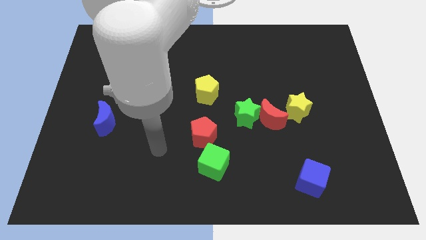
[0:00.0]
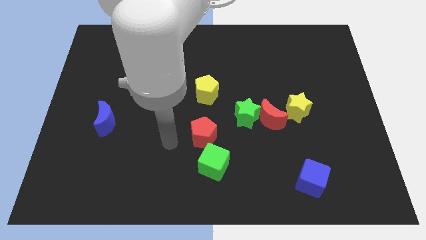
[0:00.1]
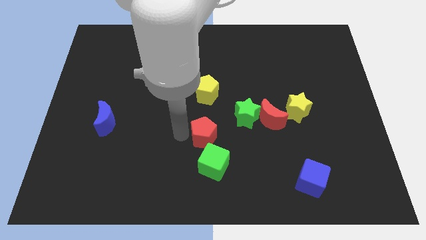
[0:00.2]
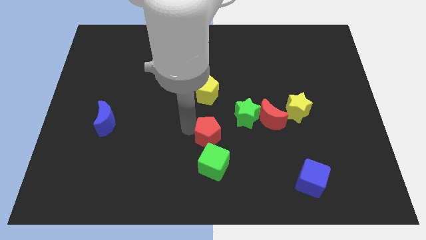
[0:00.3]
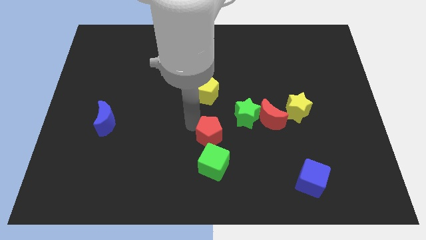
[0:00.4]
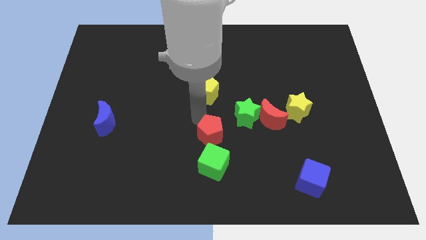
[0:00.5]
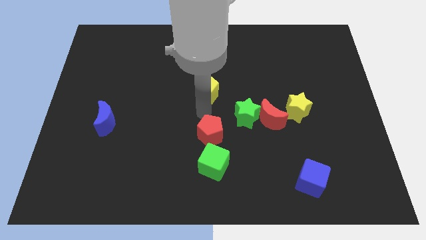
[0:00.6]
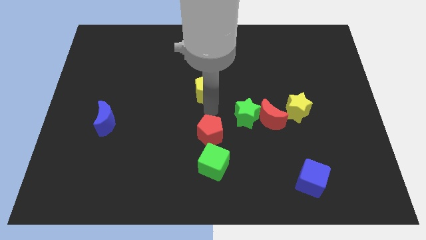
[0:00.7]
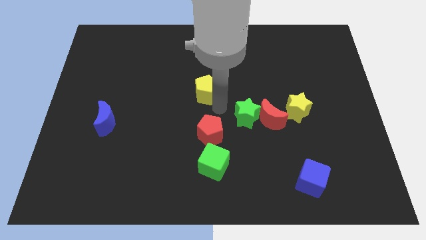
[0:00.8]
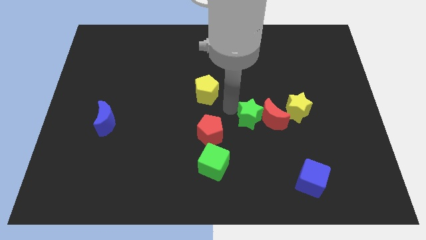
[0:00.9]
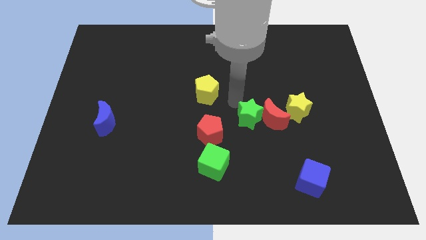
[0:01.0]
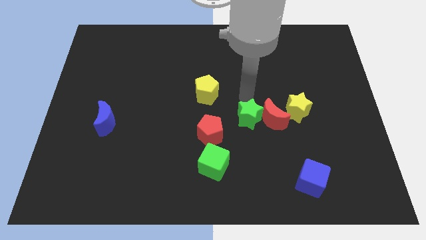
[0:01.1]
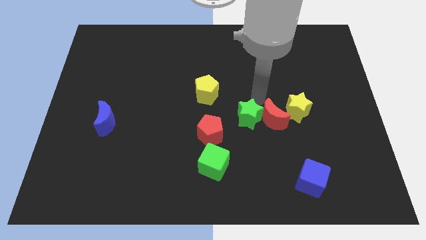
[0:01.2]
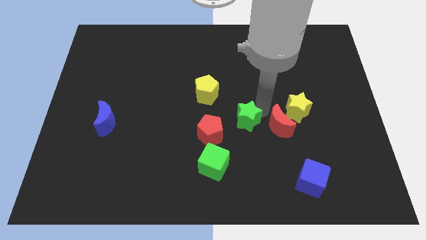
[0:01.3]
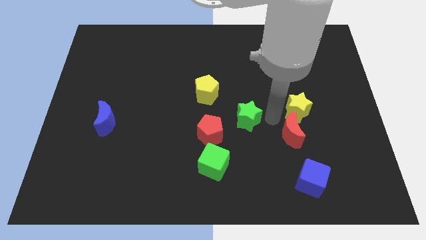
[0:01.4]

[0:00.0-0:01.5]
separate the green star from the red moon

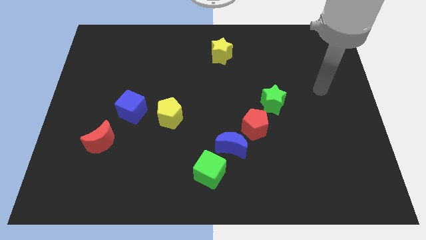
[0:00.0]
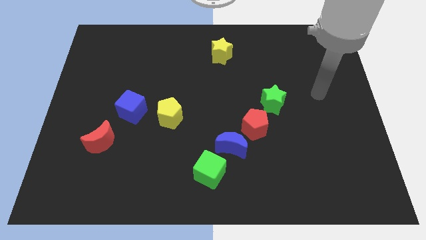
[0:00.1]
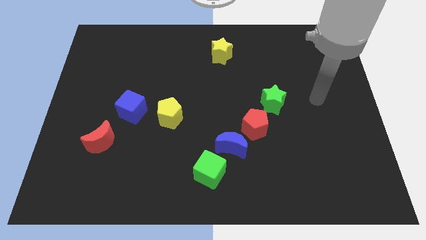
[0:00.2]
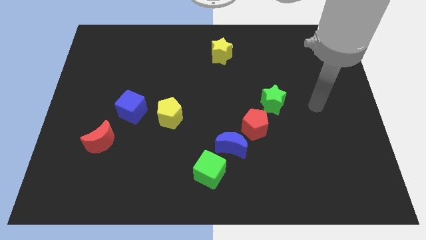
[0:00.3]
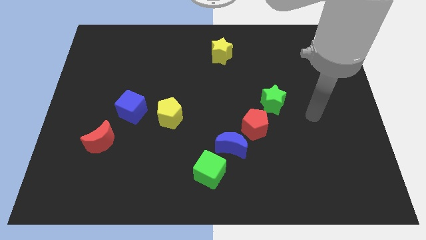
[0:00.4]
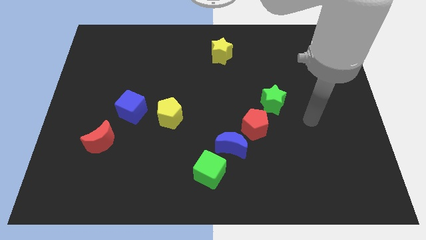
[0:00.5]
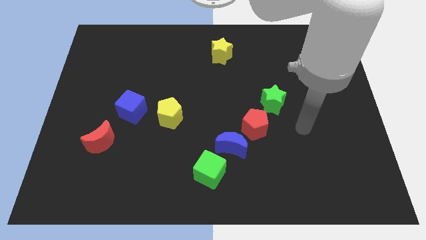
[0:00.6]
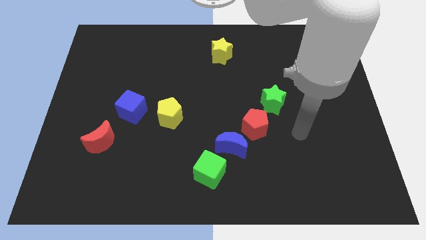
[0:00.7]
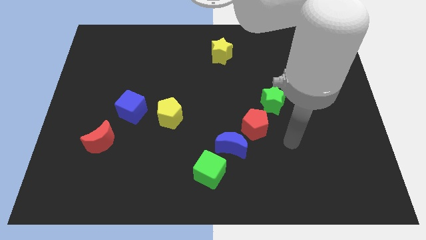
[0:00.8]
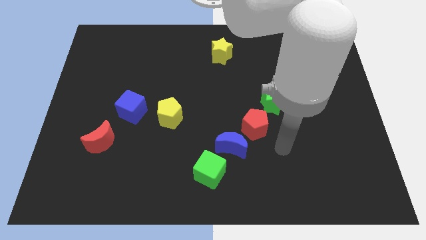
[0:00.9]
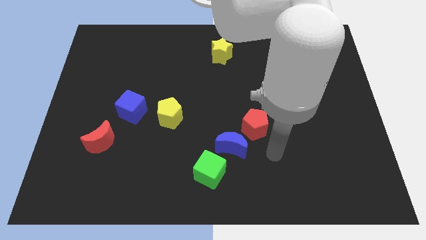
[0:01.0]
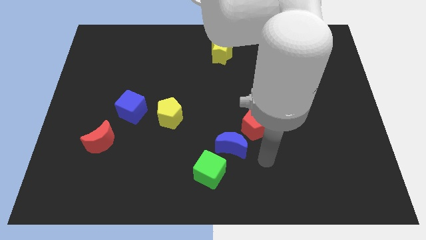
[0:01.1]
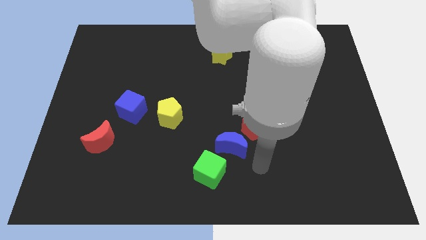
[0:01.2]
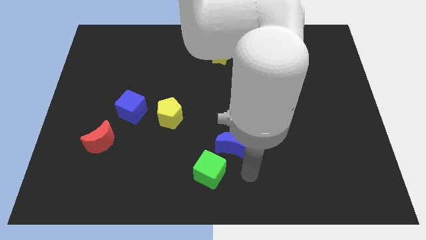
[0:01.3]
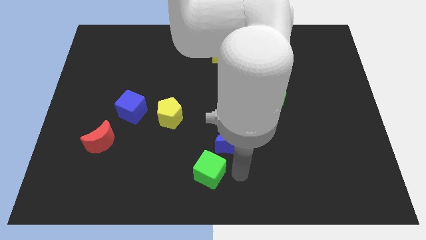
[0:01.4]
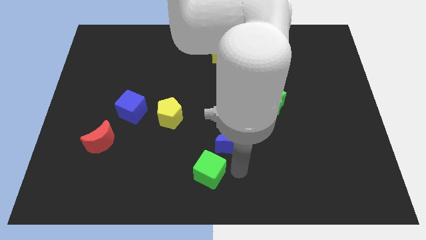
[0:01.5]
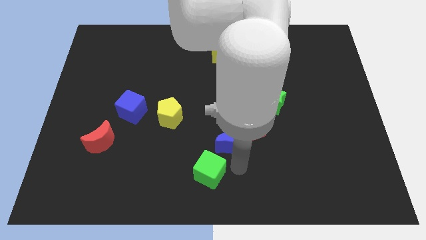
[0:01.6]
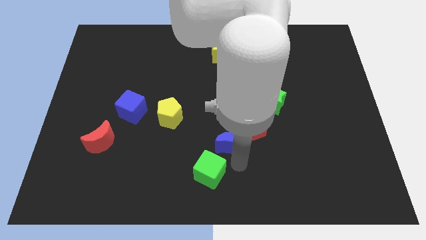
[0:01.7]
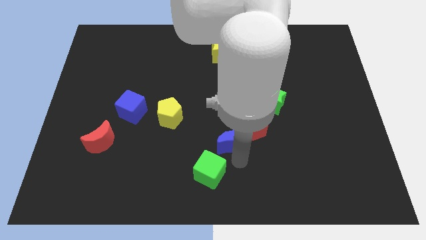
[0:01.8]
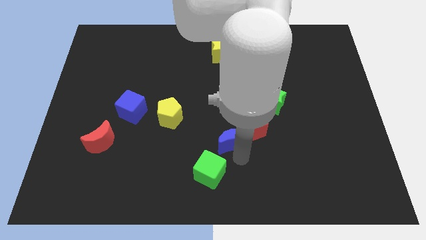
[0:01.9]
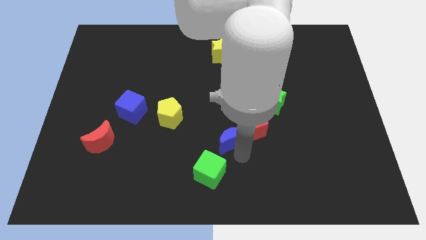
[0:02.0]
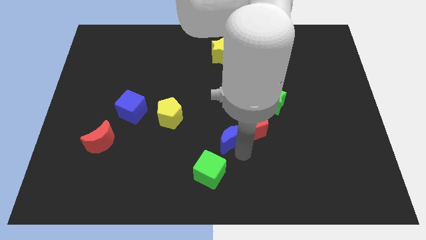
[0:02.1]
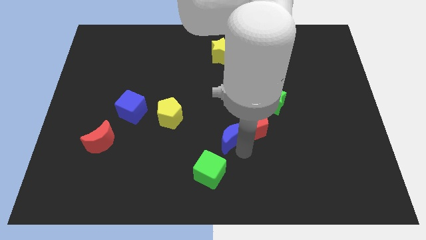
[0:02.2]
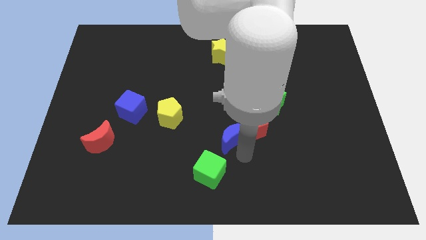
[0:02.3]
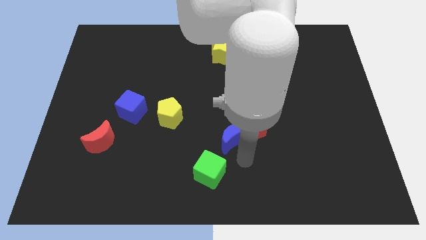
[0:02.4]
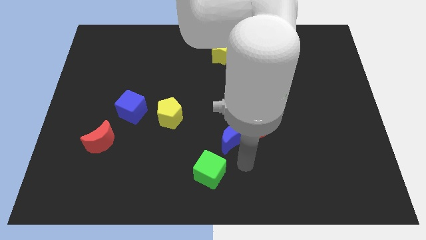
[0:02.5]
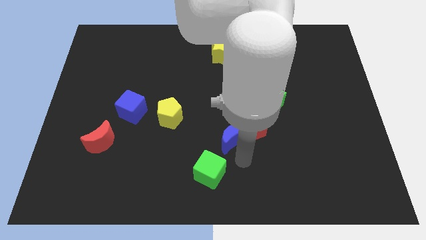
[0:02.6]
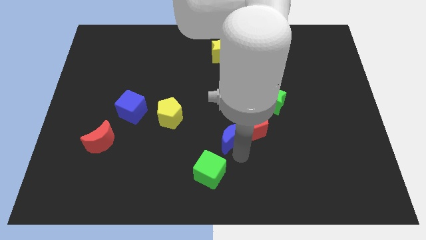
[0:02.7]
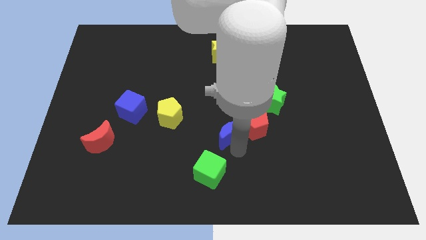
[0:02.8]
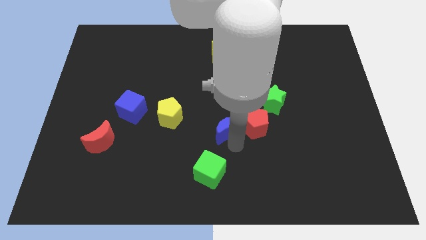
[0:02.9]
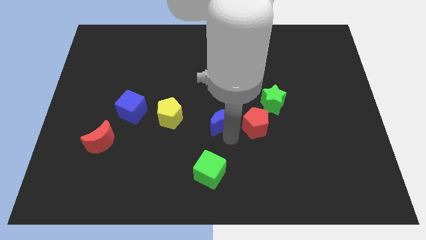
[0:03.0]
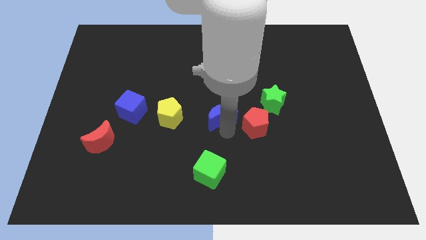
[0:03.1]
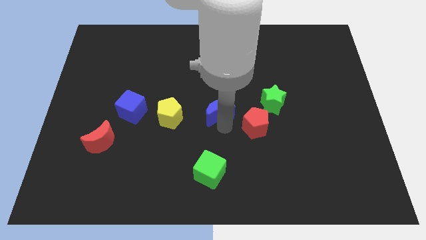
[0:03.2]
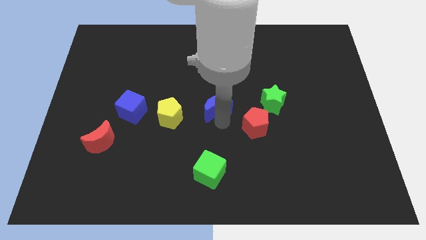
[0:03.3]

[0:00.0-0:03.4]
pull the blue moon apart from the red pentagon and green cube

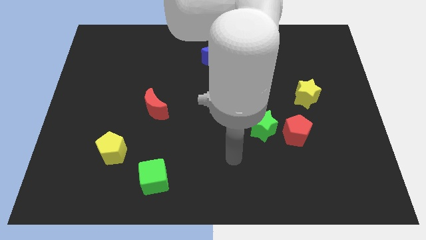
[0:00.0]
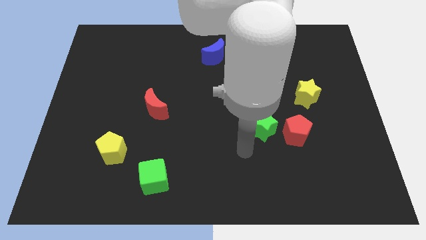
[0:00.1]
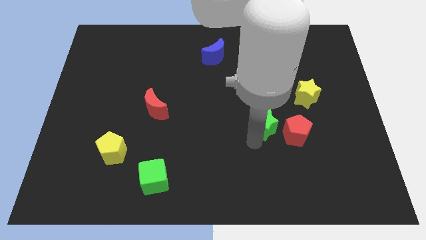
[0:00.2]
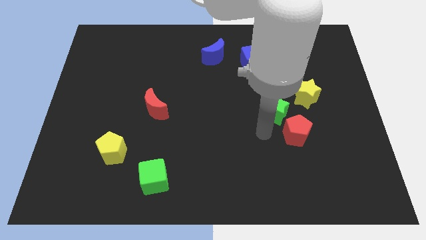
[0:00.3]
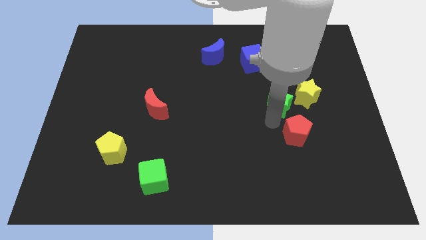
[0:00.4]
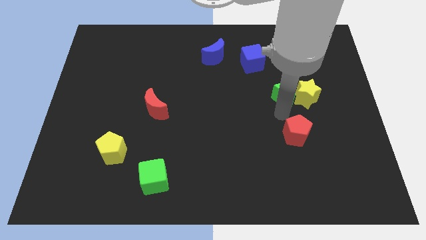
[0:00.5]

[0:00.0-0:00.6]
separate the red pentagon from the green star

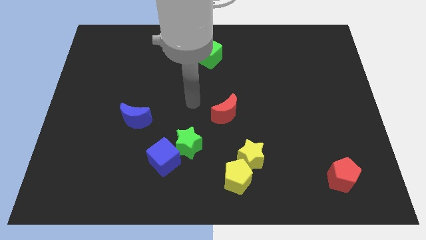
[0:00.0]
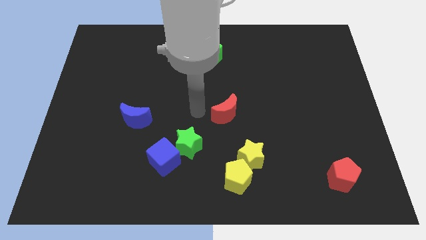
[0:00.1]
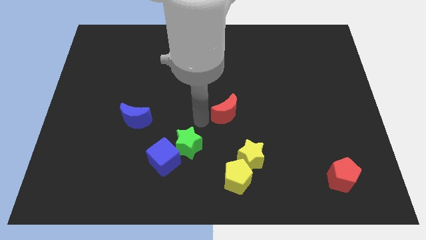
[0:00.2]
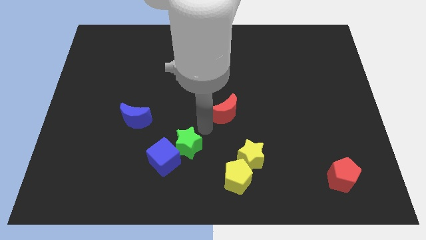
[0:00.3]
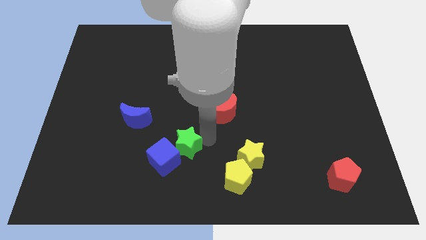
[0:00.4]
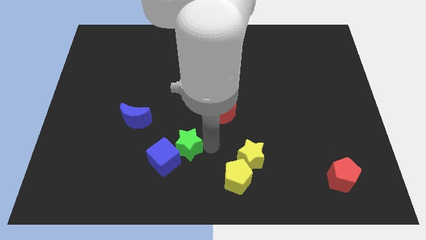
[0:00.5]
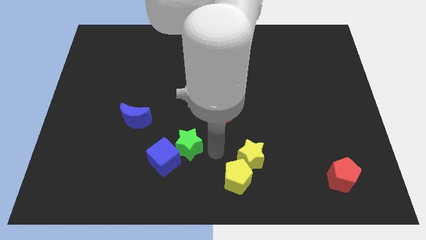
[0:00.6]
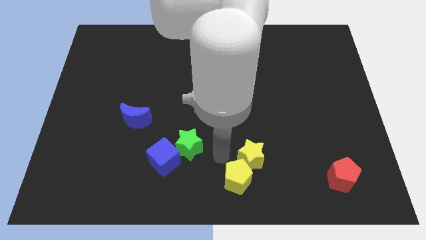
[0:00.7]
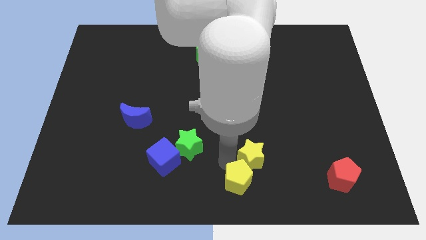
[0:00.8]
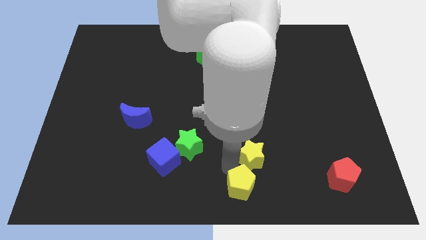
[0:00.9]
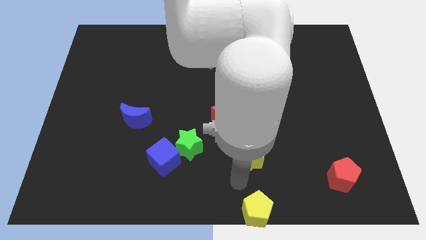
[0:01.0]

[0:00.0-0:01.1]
move the yellow star away from the yellow pentagon

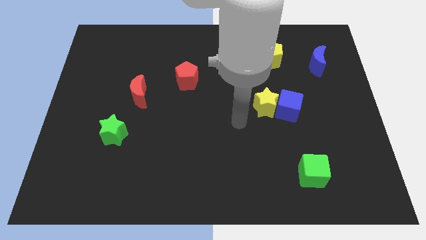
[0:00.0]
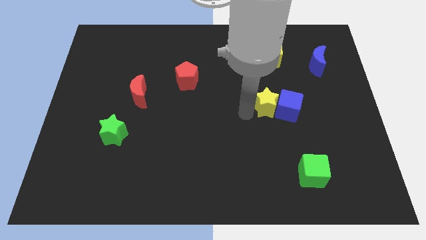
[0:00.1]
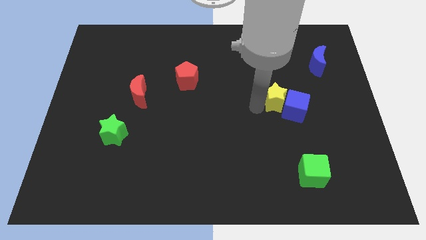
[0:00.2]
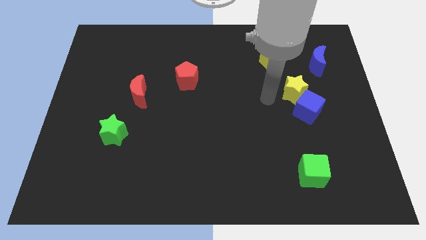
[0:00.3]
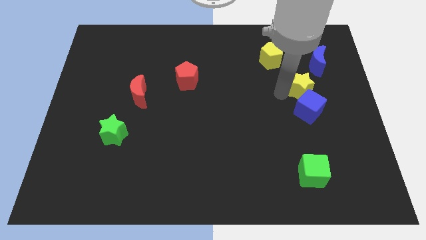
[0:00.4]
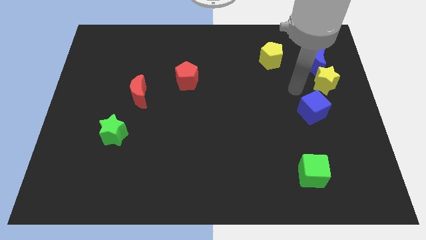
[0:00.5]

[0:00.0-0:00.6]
separate the blue cube from the yellow star

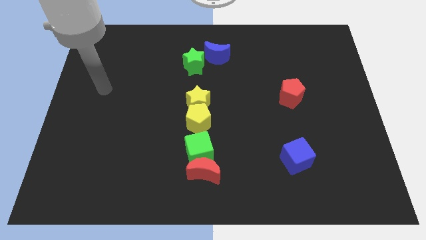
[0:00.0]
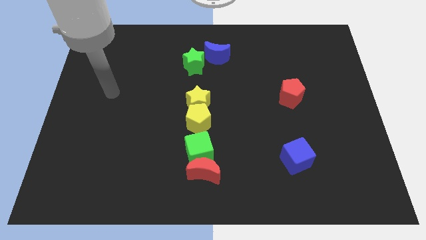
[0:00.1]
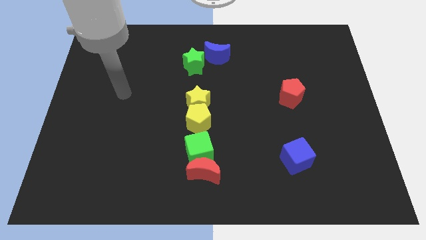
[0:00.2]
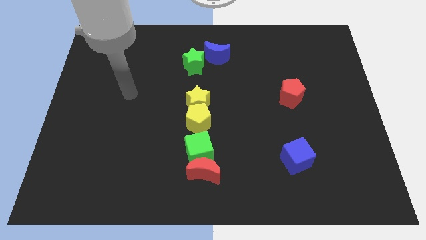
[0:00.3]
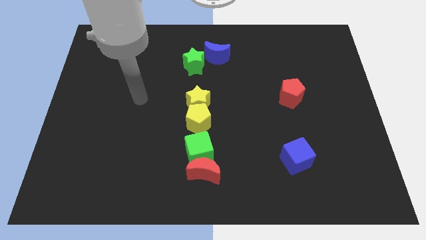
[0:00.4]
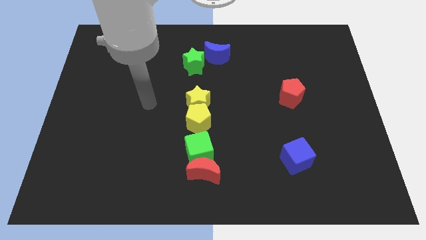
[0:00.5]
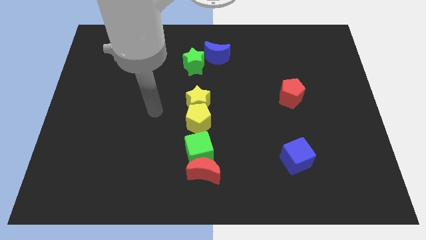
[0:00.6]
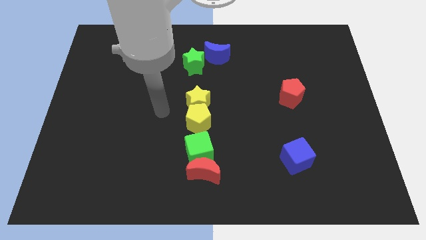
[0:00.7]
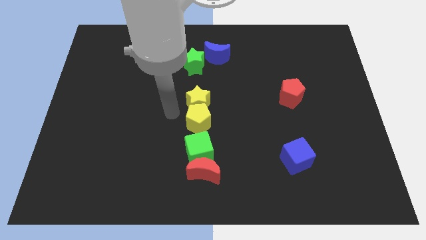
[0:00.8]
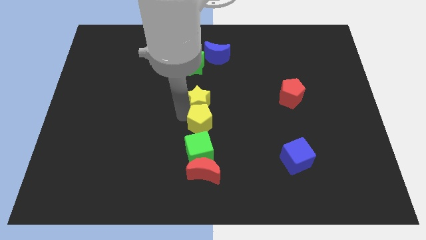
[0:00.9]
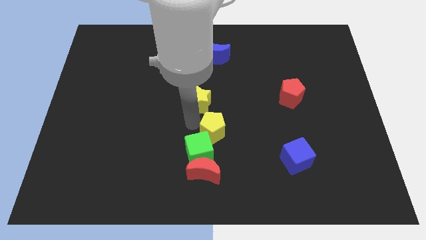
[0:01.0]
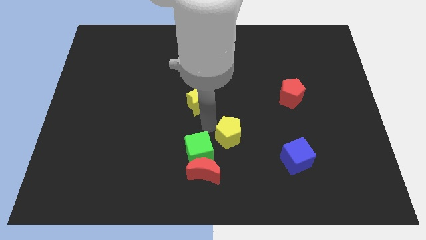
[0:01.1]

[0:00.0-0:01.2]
pull the yellow star apart from the yellow pentagon

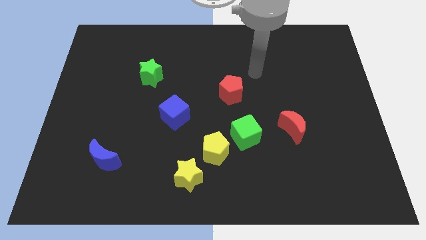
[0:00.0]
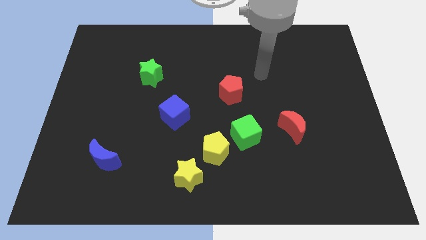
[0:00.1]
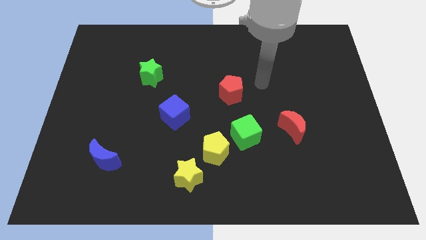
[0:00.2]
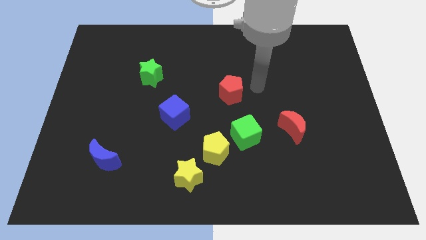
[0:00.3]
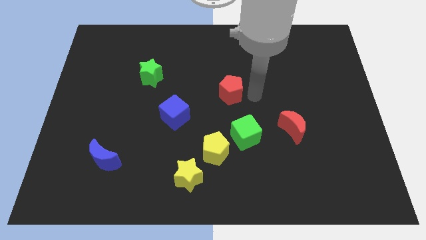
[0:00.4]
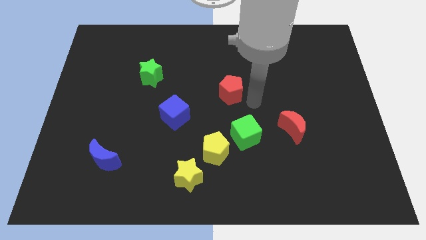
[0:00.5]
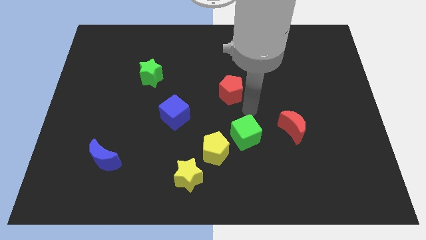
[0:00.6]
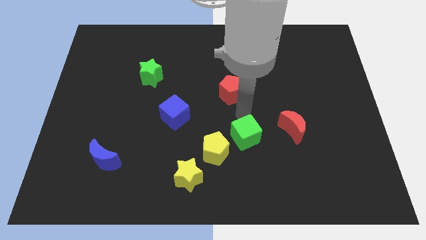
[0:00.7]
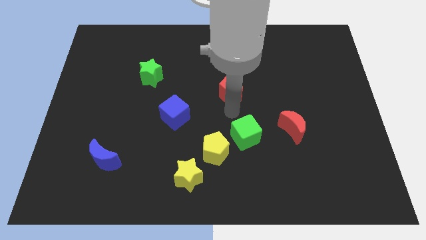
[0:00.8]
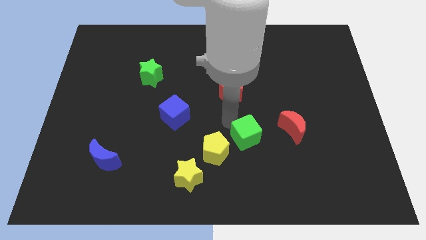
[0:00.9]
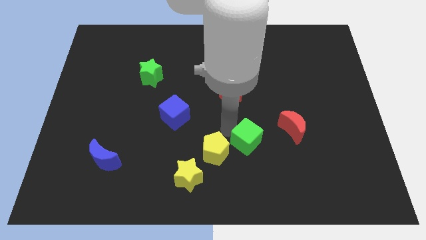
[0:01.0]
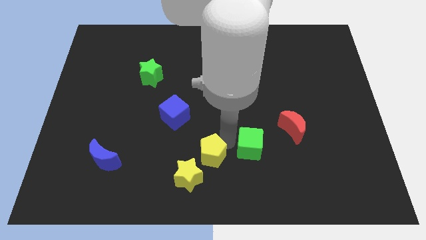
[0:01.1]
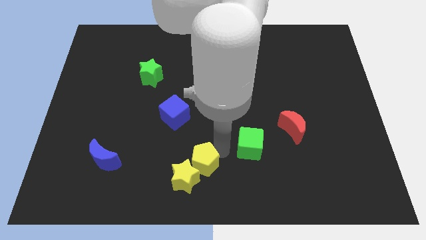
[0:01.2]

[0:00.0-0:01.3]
move the green cube away from the yellow pentagon
